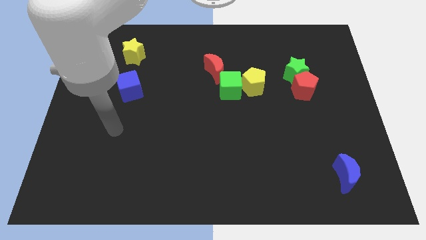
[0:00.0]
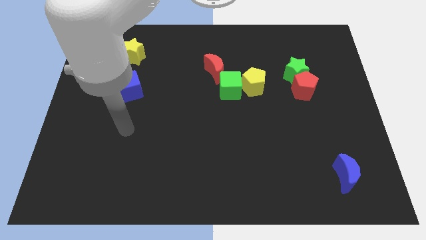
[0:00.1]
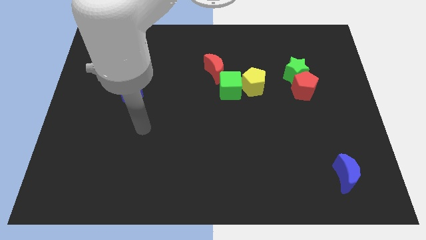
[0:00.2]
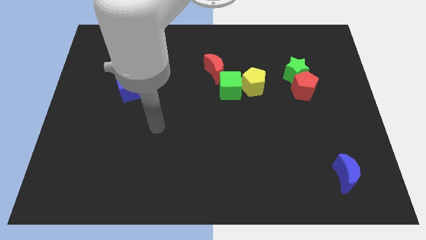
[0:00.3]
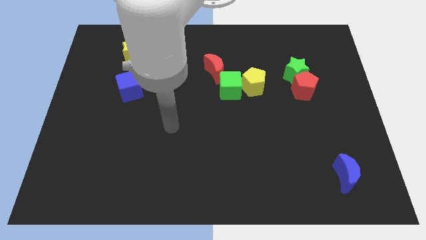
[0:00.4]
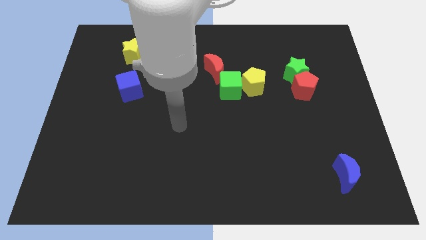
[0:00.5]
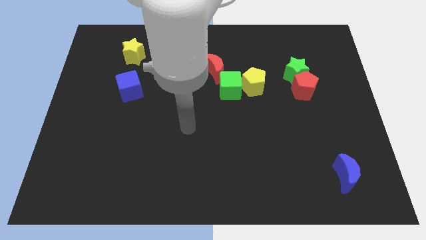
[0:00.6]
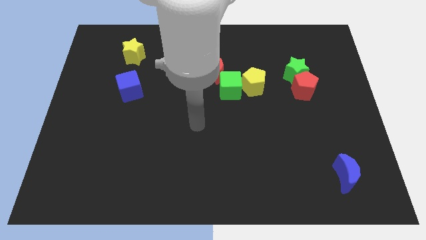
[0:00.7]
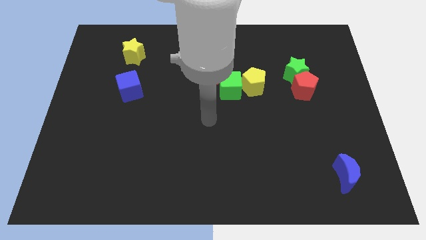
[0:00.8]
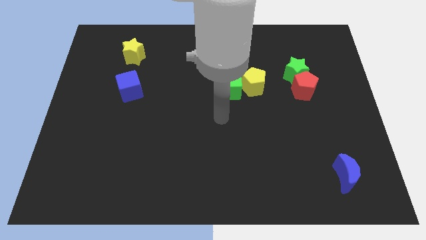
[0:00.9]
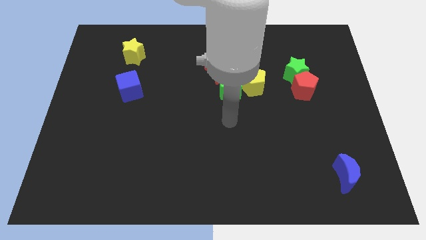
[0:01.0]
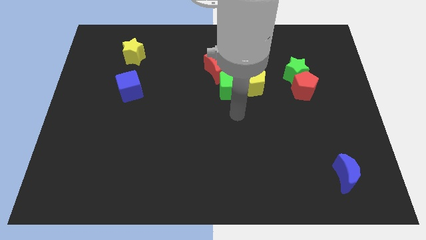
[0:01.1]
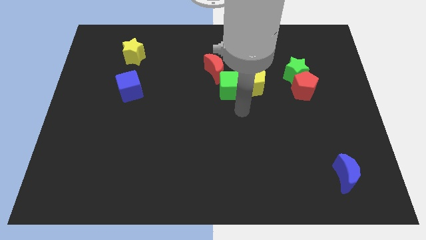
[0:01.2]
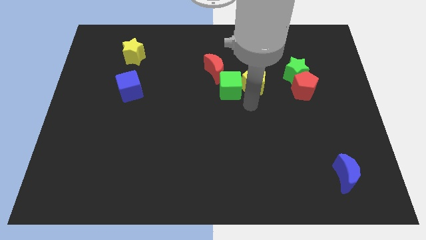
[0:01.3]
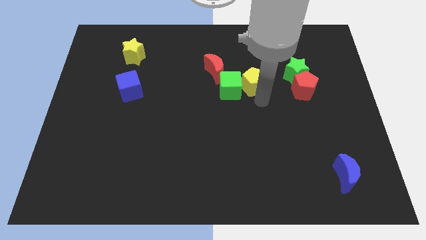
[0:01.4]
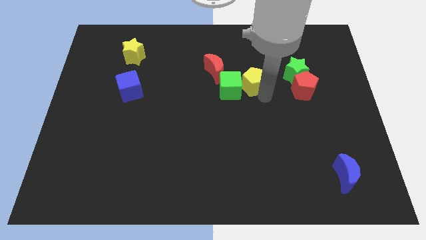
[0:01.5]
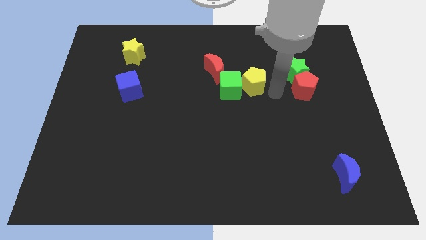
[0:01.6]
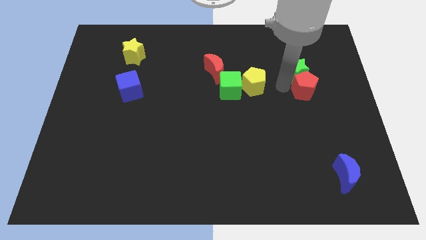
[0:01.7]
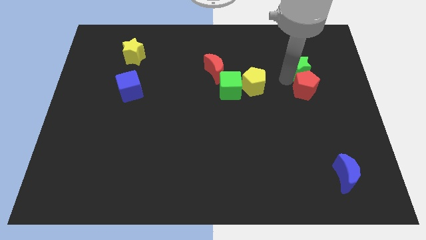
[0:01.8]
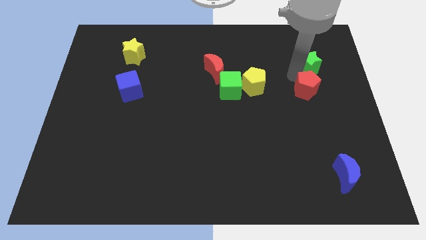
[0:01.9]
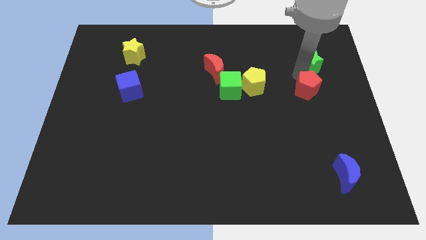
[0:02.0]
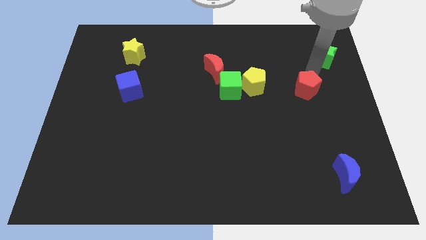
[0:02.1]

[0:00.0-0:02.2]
separate the red pentagon from the green star

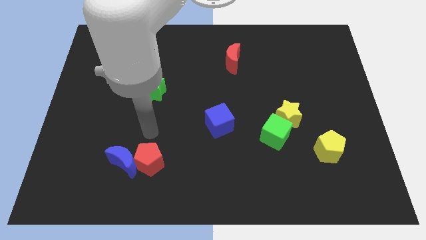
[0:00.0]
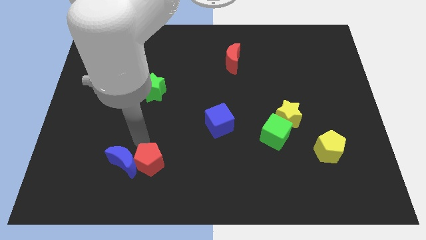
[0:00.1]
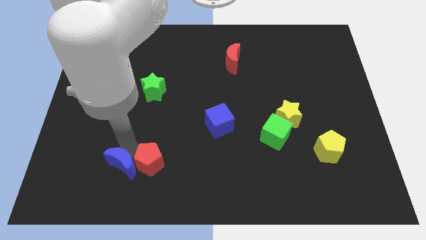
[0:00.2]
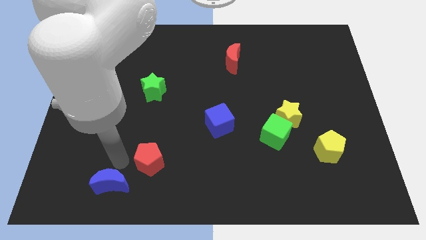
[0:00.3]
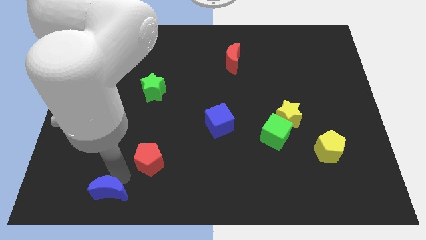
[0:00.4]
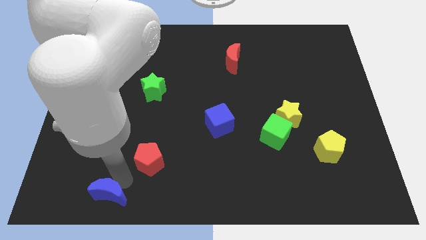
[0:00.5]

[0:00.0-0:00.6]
pull the red pentagon apart from the blue moon

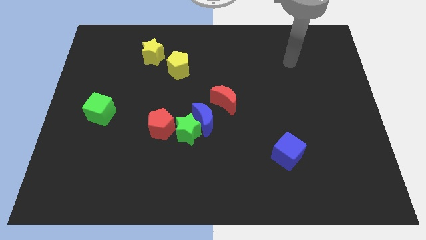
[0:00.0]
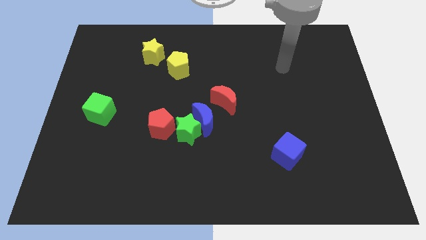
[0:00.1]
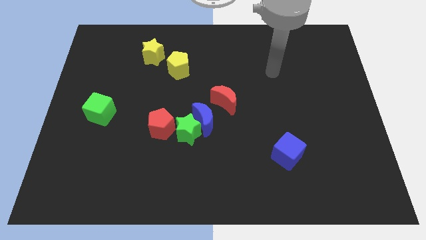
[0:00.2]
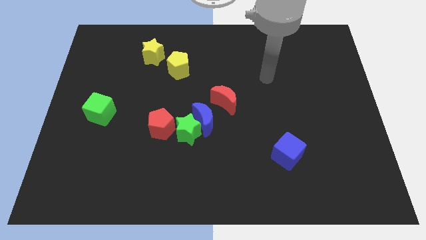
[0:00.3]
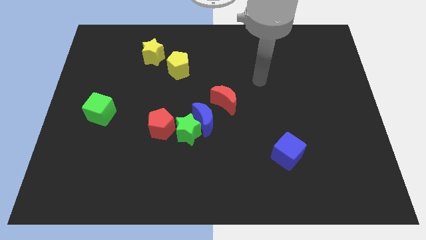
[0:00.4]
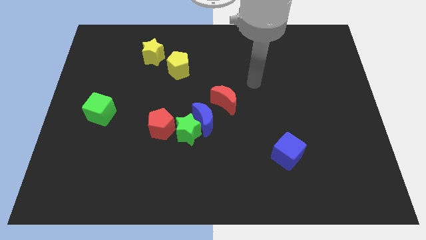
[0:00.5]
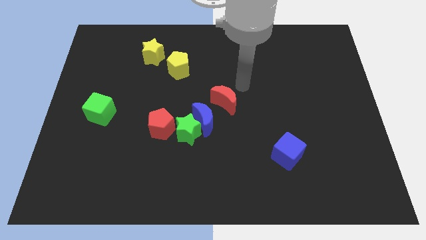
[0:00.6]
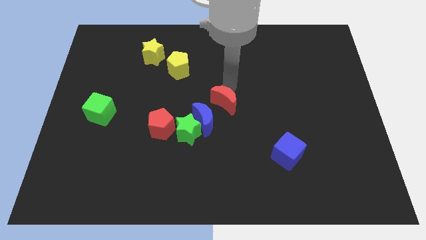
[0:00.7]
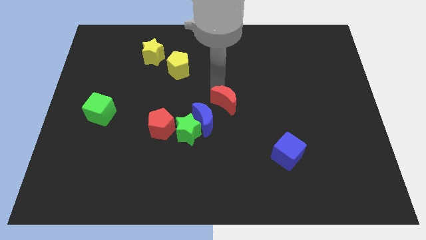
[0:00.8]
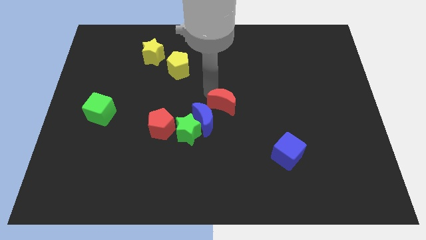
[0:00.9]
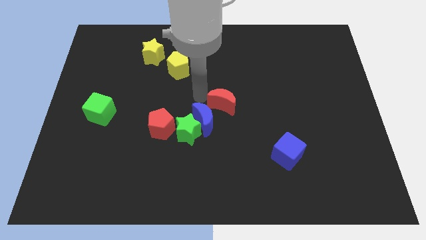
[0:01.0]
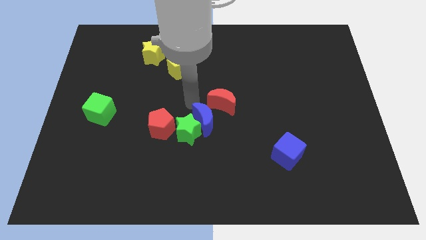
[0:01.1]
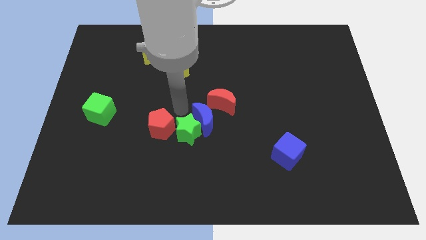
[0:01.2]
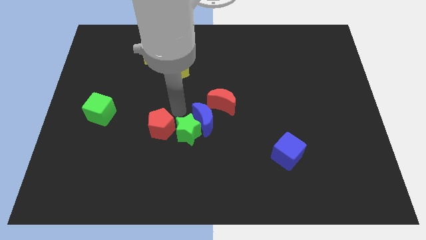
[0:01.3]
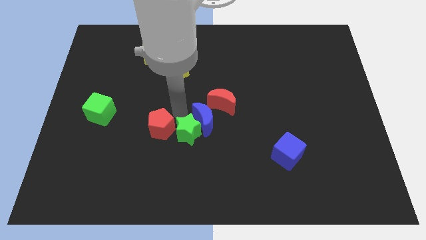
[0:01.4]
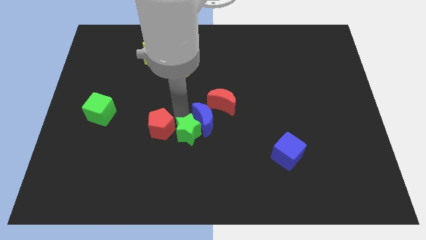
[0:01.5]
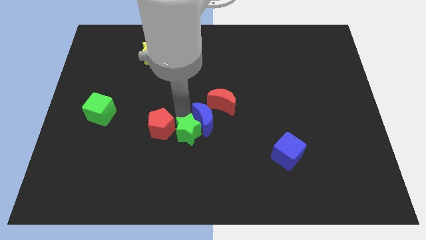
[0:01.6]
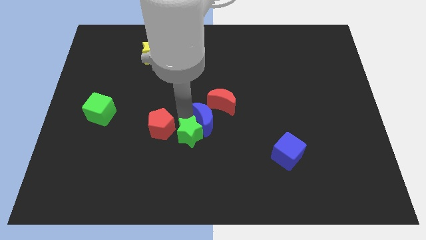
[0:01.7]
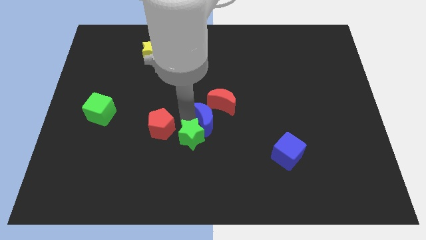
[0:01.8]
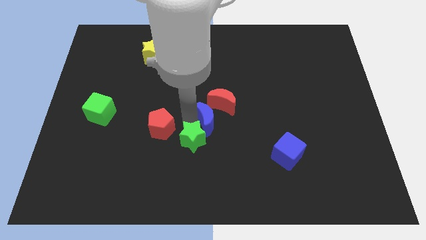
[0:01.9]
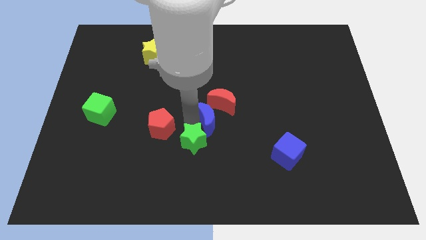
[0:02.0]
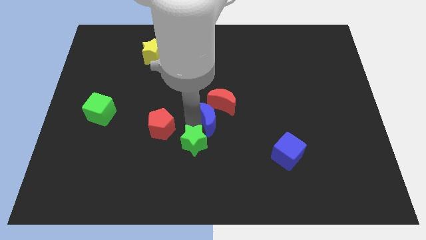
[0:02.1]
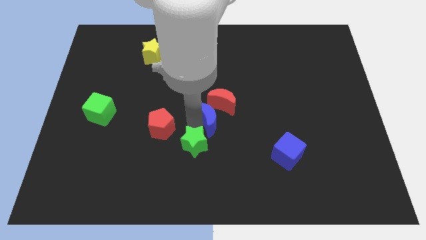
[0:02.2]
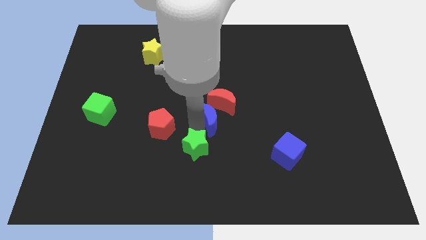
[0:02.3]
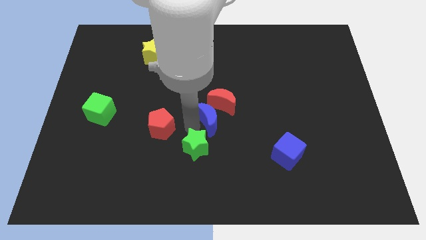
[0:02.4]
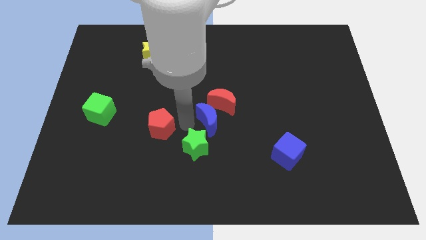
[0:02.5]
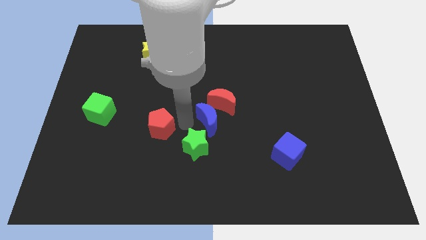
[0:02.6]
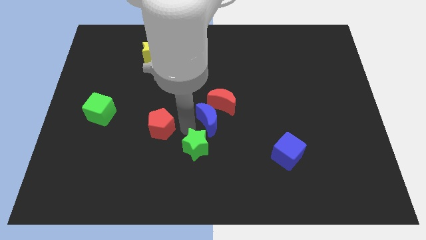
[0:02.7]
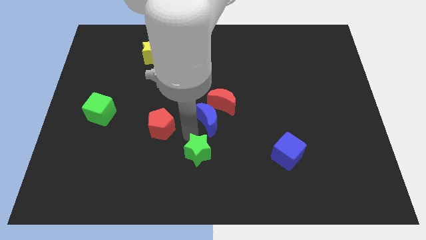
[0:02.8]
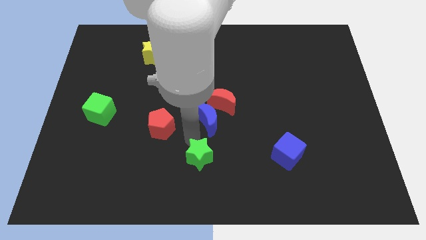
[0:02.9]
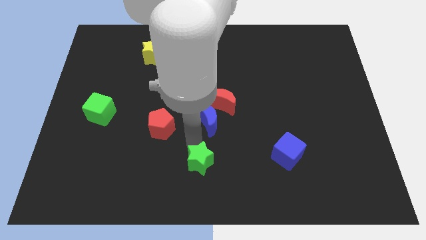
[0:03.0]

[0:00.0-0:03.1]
move the green star away from the blue moon and red pentagon

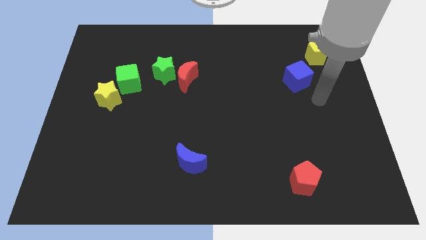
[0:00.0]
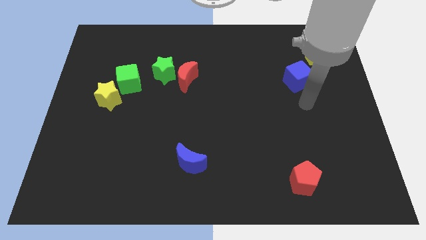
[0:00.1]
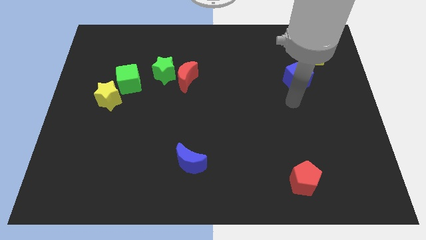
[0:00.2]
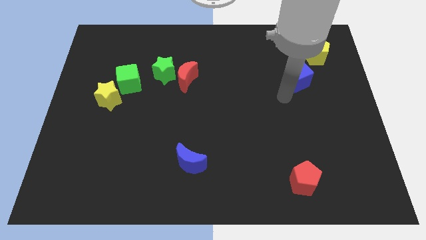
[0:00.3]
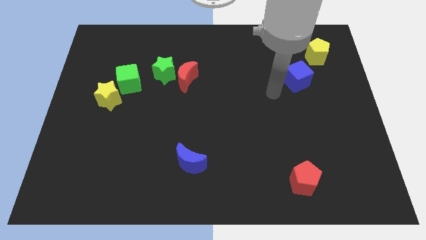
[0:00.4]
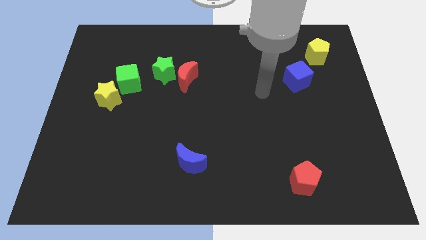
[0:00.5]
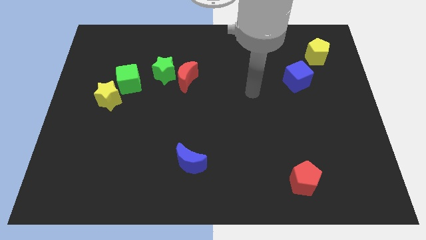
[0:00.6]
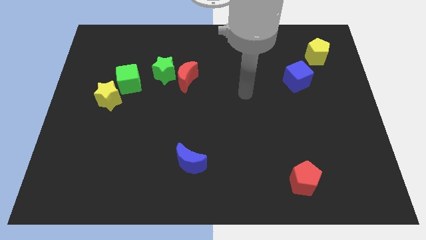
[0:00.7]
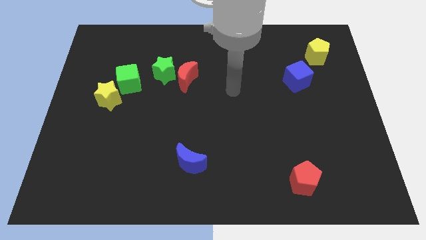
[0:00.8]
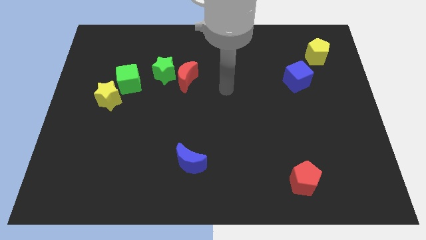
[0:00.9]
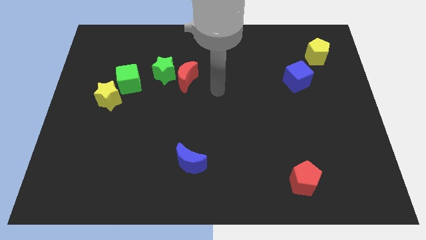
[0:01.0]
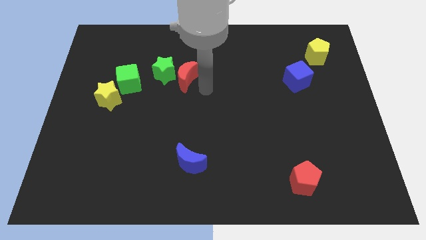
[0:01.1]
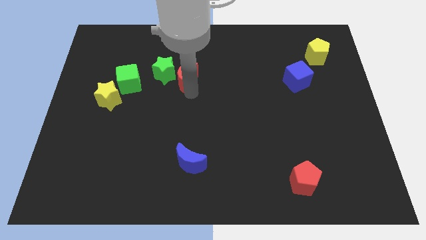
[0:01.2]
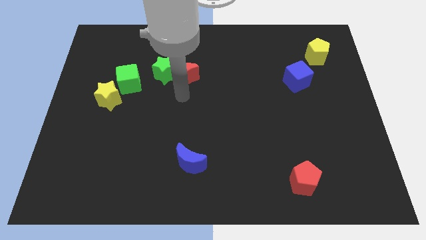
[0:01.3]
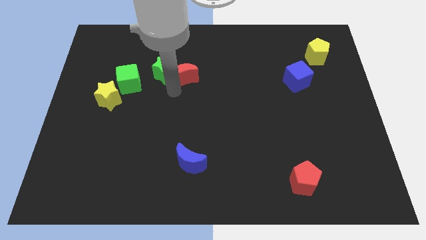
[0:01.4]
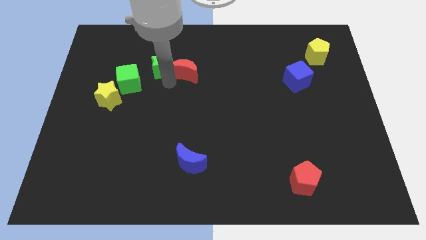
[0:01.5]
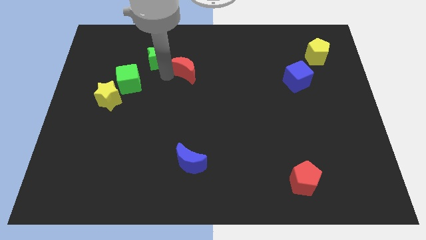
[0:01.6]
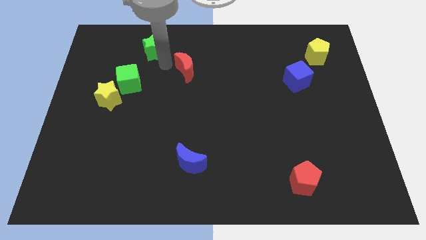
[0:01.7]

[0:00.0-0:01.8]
pull the red moon apart from the green star

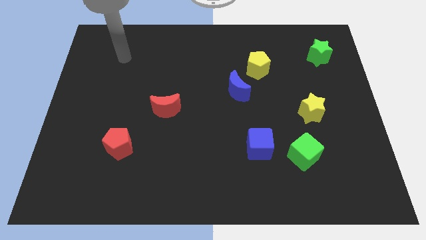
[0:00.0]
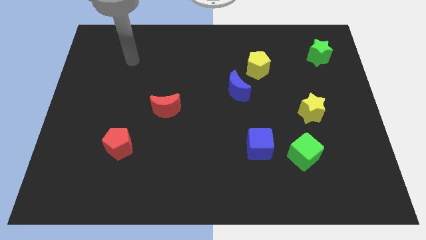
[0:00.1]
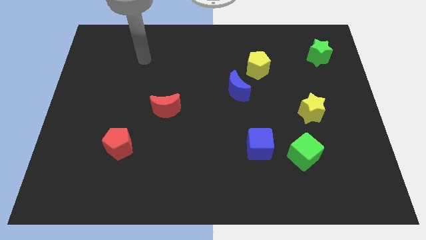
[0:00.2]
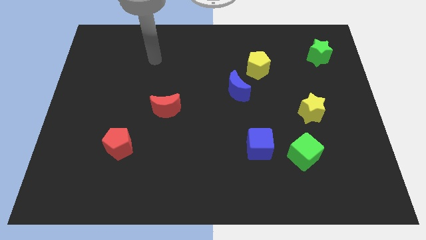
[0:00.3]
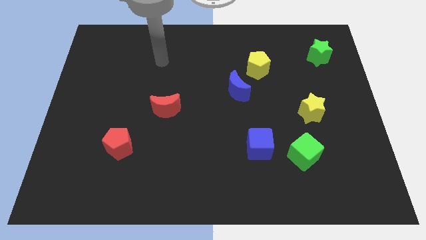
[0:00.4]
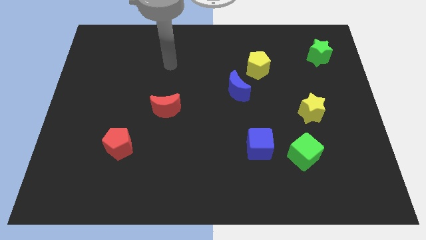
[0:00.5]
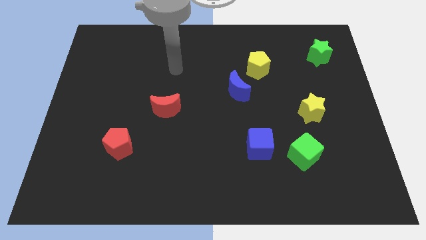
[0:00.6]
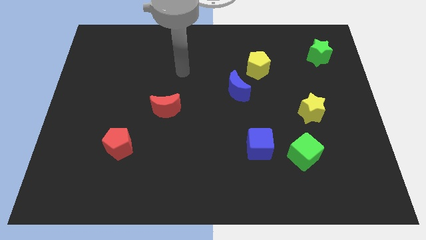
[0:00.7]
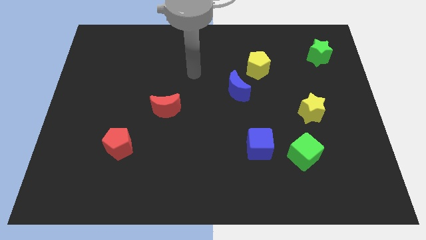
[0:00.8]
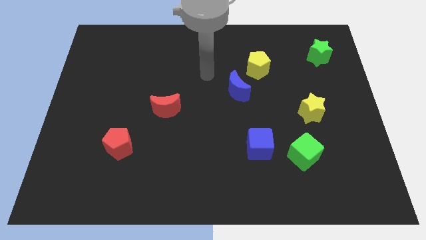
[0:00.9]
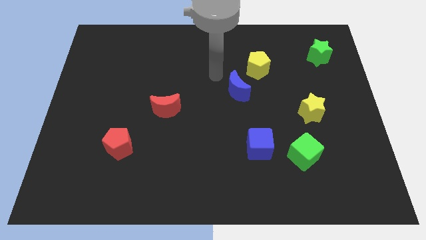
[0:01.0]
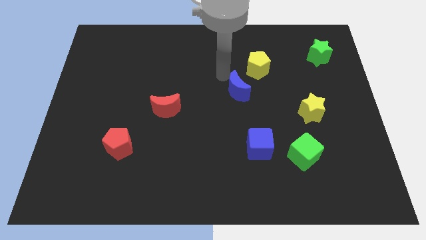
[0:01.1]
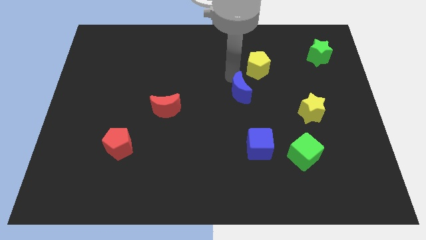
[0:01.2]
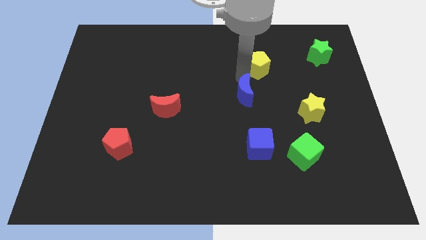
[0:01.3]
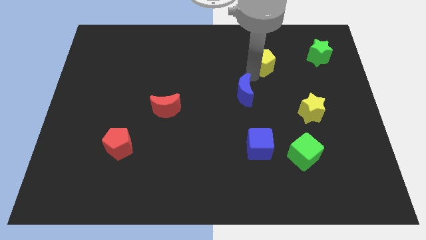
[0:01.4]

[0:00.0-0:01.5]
pull the blue moon apart from the yellow pentagon
